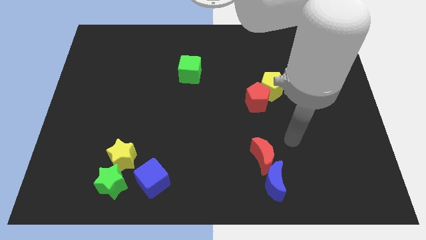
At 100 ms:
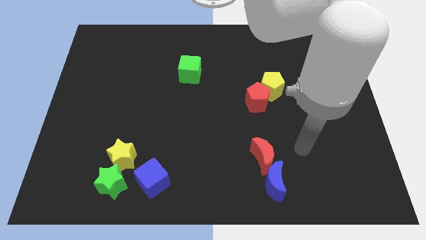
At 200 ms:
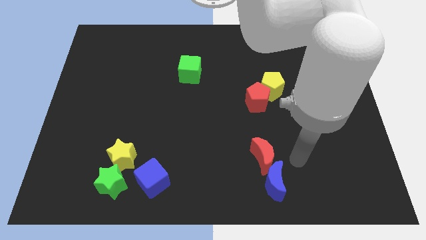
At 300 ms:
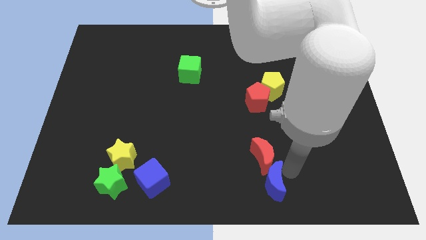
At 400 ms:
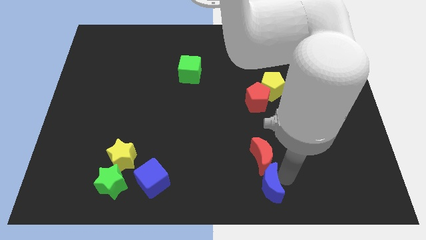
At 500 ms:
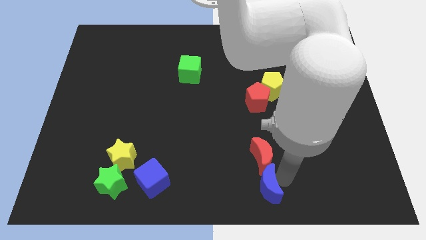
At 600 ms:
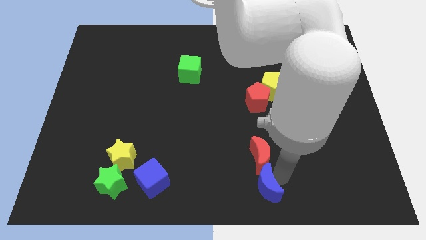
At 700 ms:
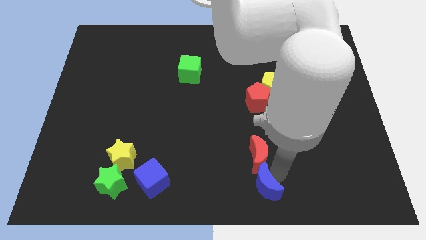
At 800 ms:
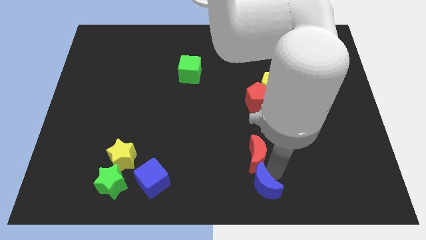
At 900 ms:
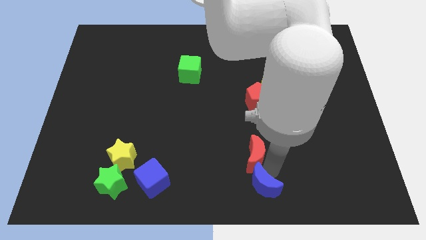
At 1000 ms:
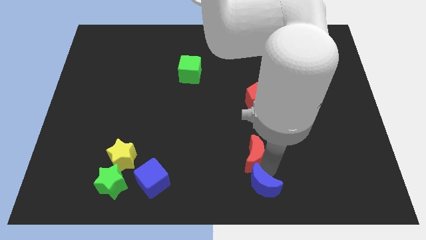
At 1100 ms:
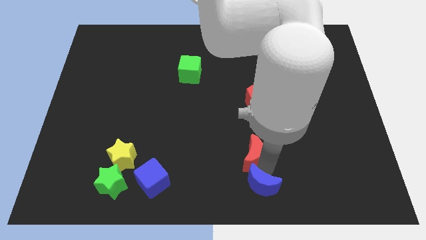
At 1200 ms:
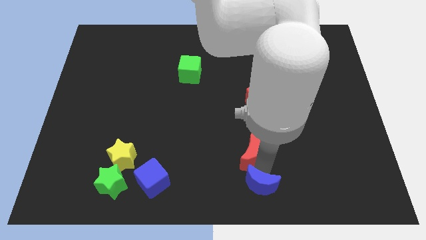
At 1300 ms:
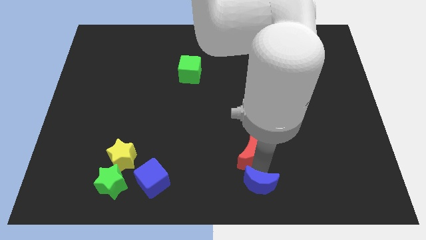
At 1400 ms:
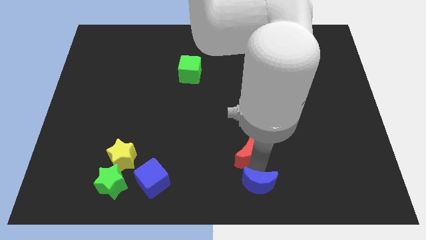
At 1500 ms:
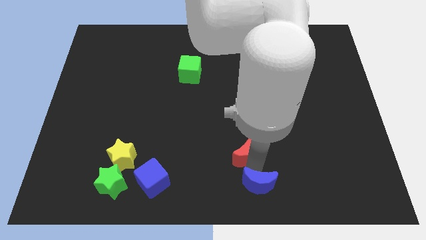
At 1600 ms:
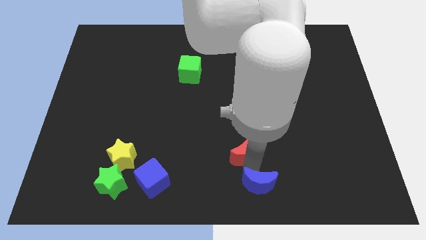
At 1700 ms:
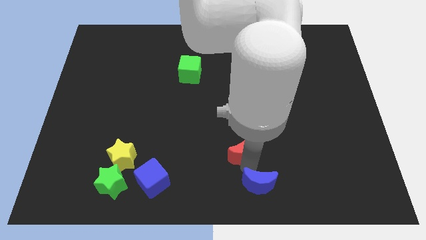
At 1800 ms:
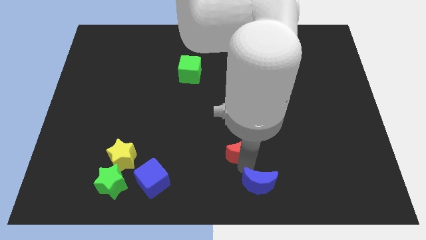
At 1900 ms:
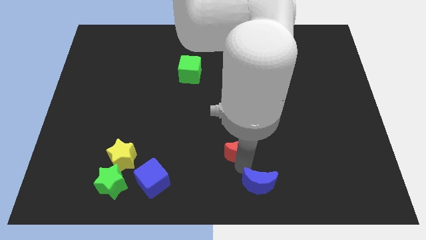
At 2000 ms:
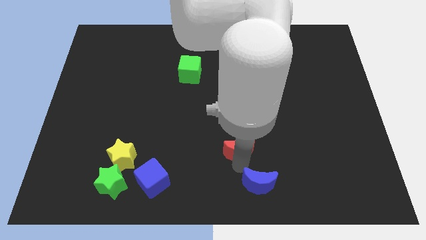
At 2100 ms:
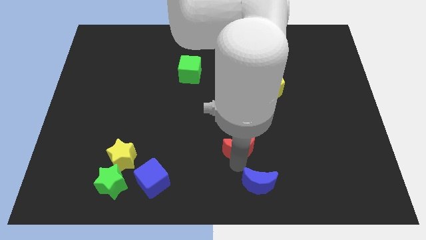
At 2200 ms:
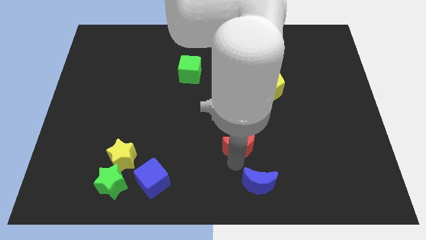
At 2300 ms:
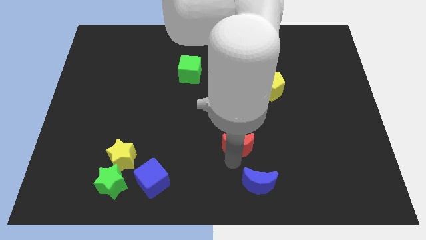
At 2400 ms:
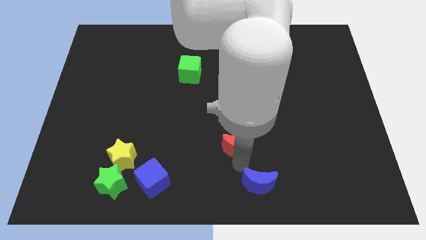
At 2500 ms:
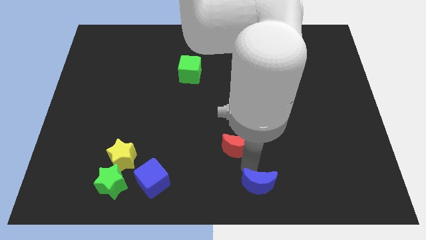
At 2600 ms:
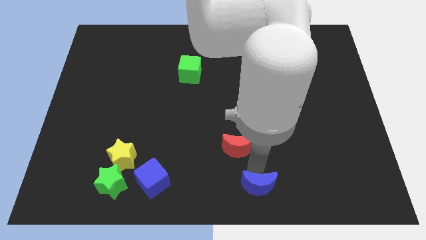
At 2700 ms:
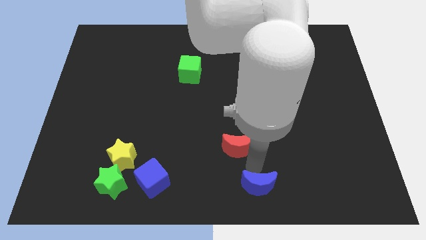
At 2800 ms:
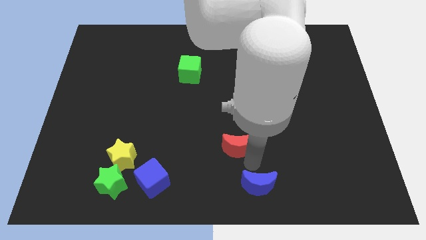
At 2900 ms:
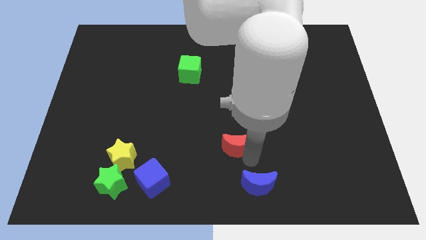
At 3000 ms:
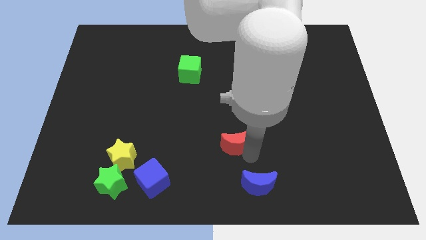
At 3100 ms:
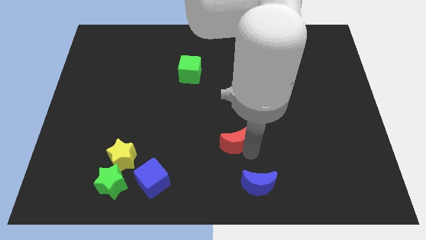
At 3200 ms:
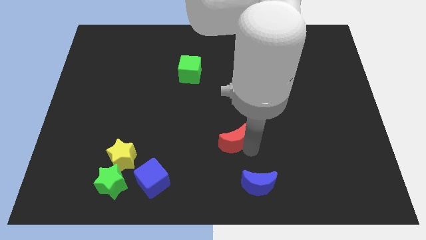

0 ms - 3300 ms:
push the red moon diagonally up and to the left slightly

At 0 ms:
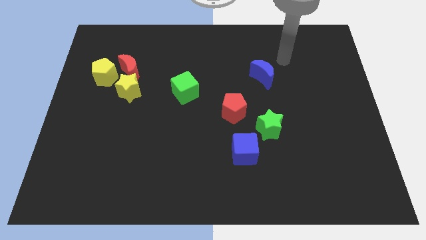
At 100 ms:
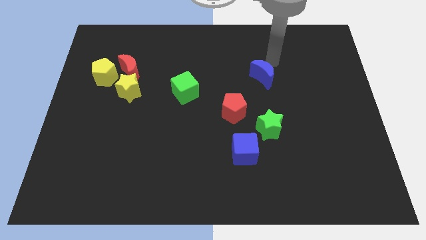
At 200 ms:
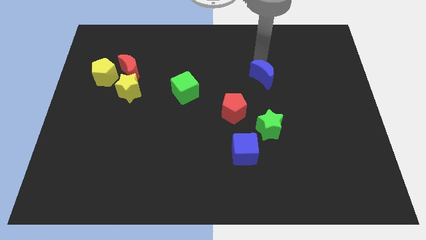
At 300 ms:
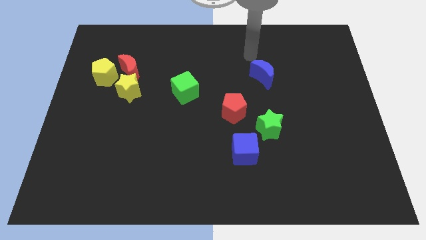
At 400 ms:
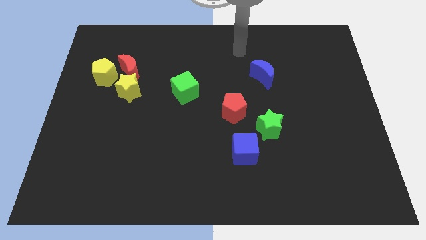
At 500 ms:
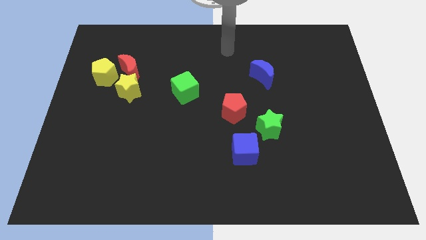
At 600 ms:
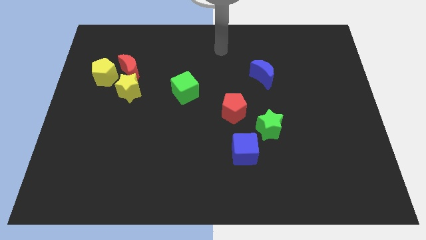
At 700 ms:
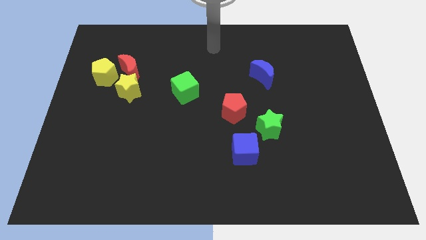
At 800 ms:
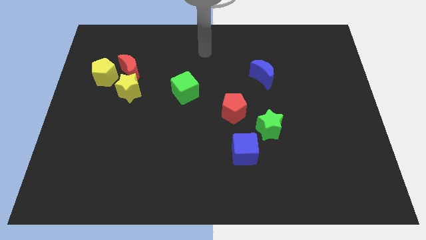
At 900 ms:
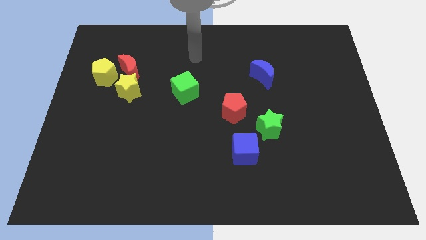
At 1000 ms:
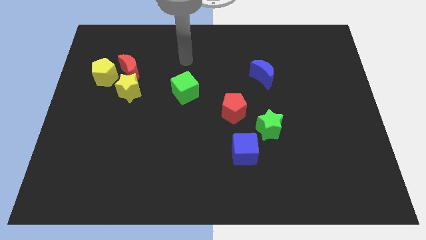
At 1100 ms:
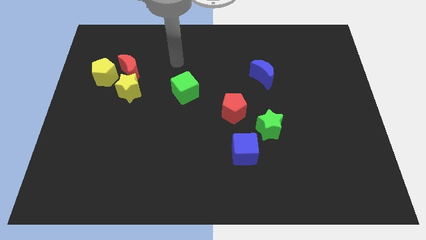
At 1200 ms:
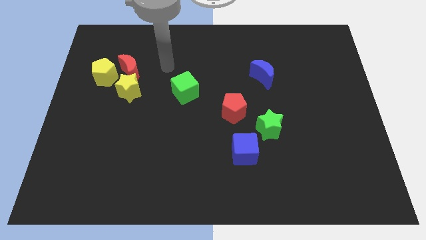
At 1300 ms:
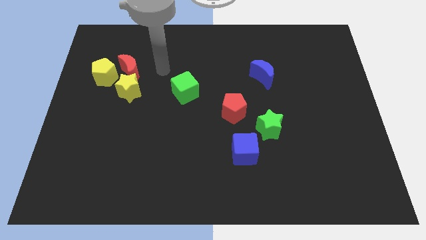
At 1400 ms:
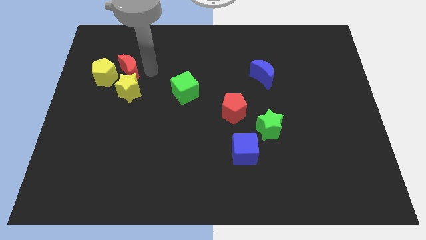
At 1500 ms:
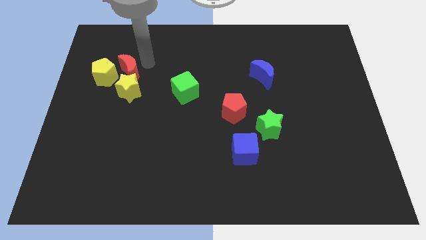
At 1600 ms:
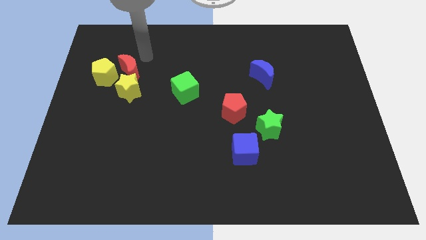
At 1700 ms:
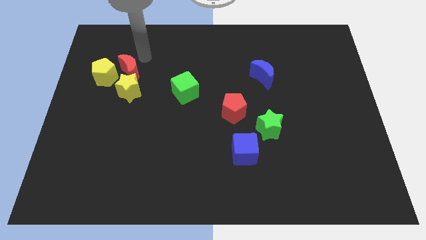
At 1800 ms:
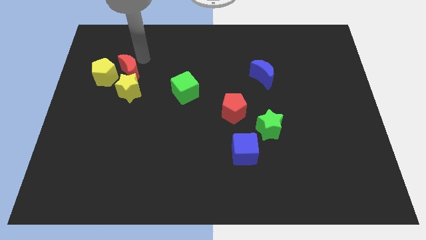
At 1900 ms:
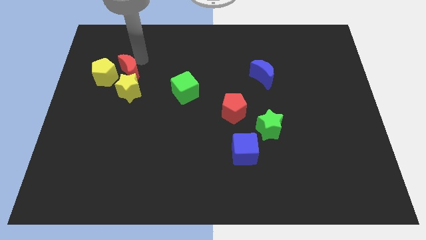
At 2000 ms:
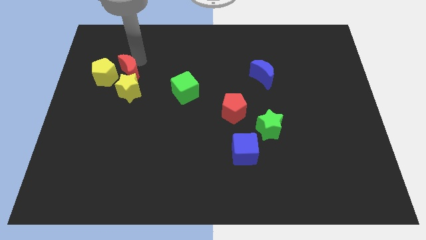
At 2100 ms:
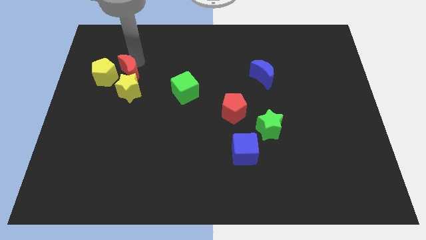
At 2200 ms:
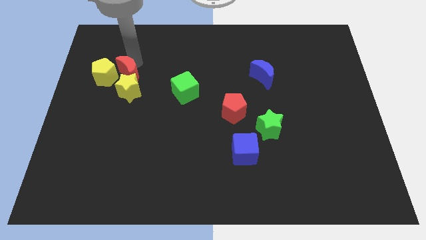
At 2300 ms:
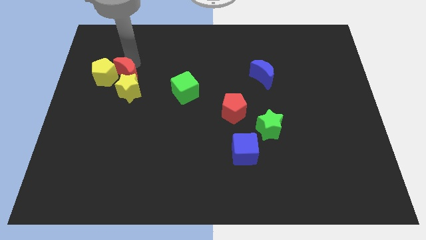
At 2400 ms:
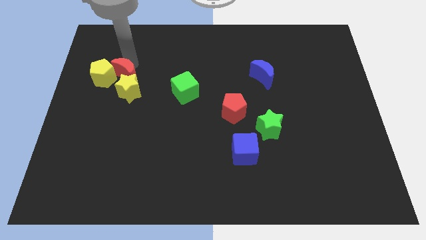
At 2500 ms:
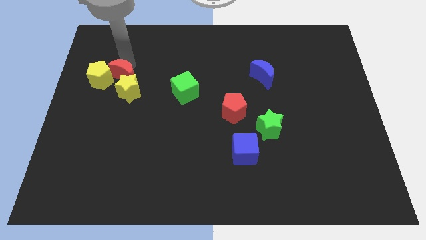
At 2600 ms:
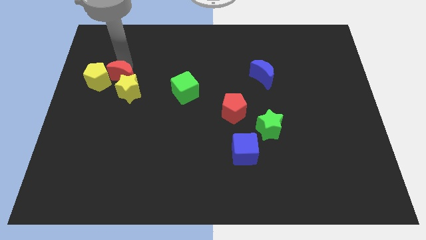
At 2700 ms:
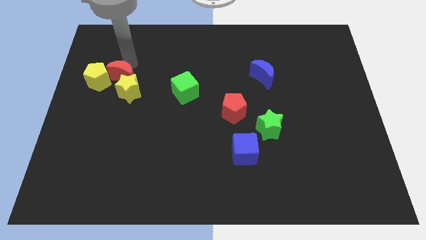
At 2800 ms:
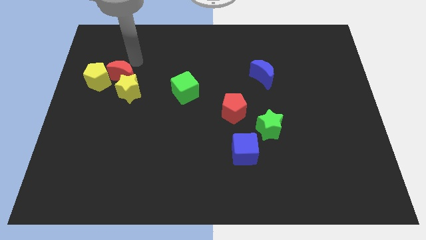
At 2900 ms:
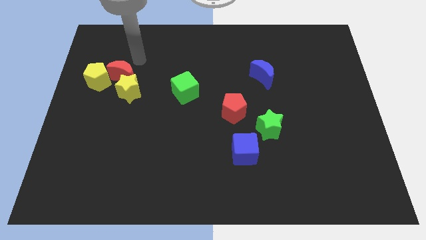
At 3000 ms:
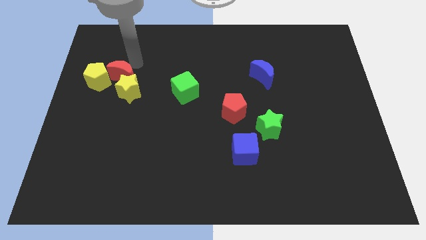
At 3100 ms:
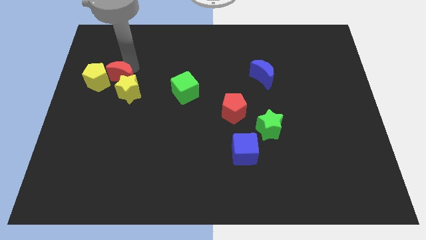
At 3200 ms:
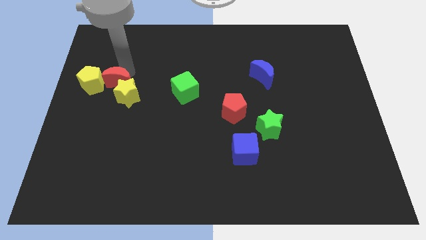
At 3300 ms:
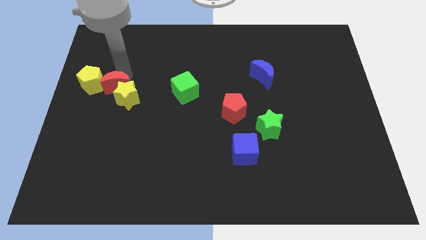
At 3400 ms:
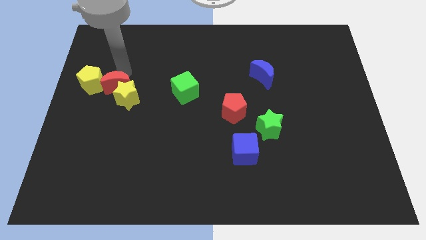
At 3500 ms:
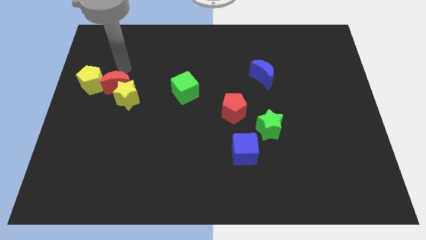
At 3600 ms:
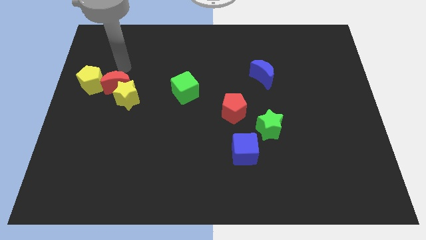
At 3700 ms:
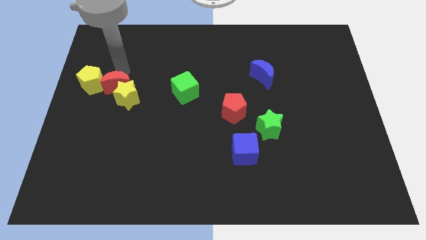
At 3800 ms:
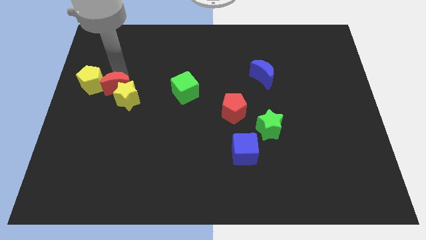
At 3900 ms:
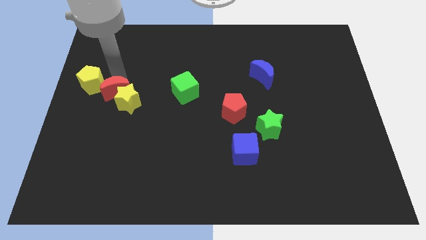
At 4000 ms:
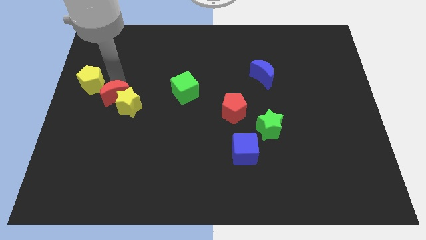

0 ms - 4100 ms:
move the red moon a little bit down

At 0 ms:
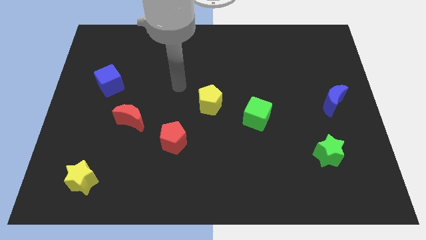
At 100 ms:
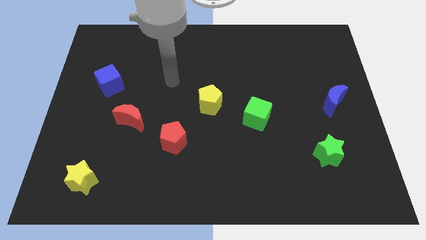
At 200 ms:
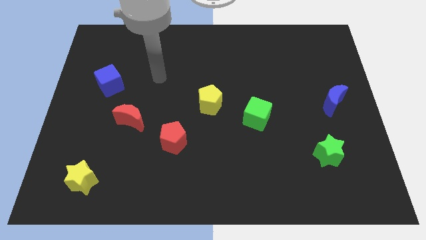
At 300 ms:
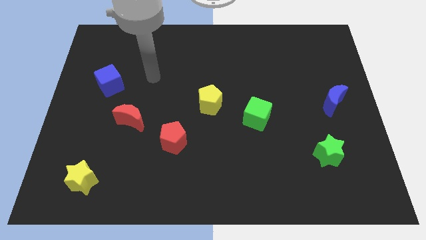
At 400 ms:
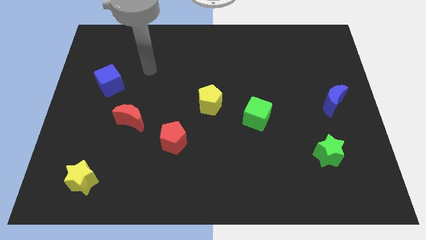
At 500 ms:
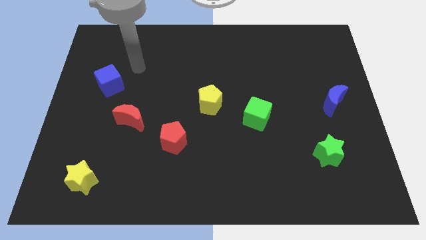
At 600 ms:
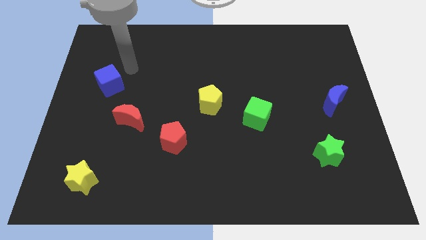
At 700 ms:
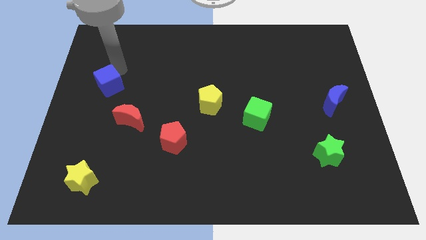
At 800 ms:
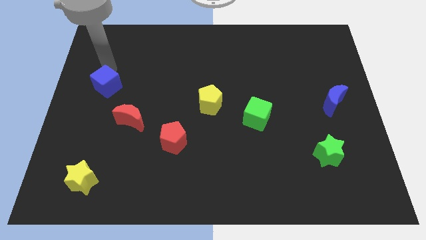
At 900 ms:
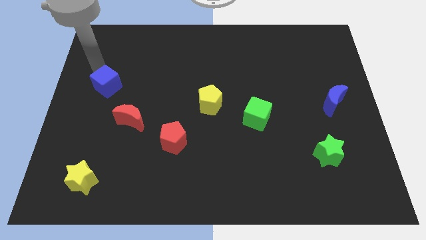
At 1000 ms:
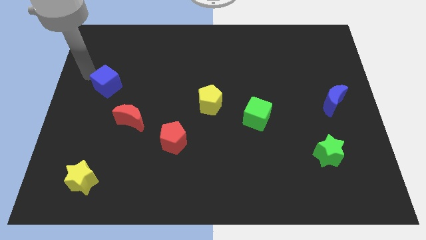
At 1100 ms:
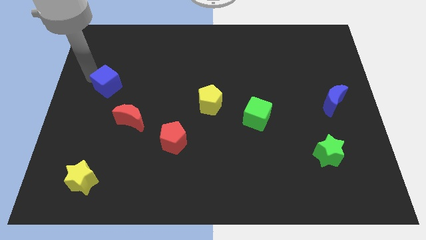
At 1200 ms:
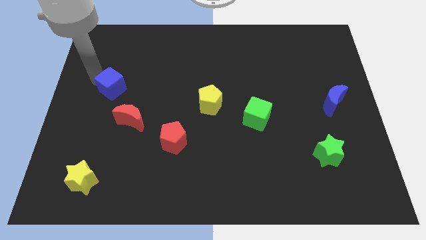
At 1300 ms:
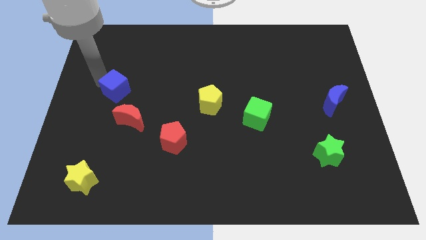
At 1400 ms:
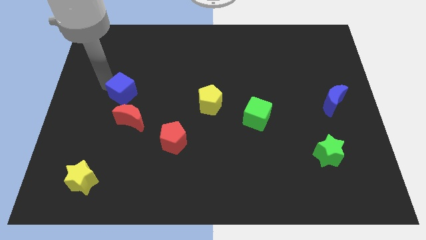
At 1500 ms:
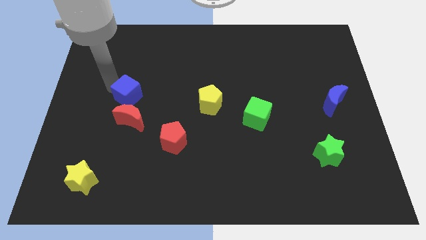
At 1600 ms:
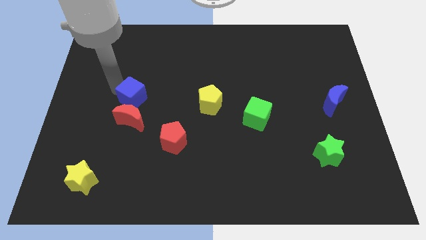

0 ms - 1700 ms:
push the blue cube downwards and right diagonally a little bit
